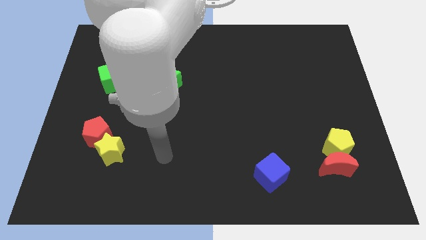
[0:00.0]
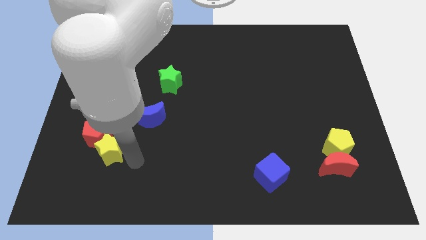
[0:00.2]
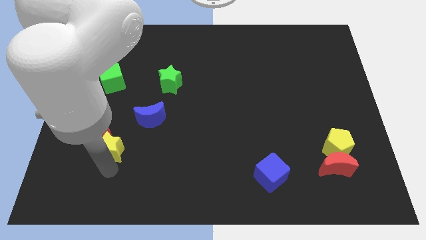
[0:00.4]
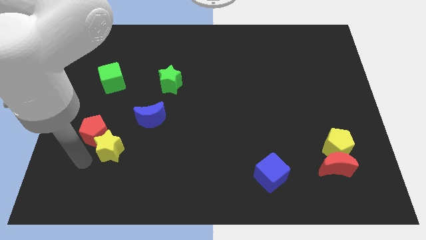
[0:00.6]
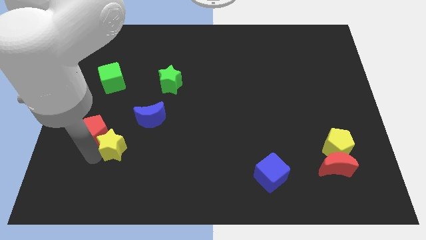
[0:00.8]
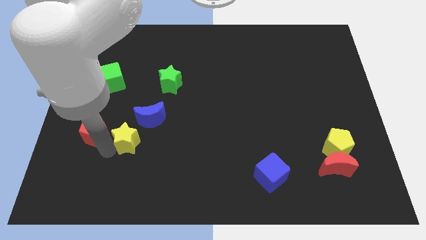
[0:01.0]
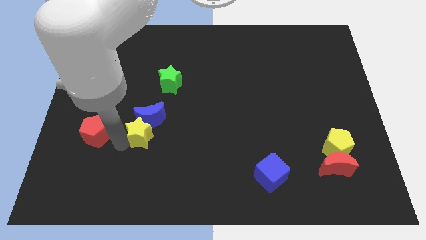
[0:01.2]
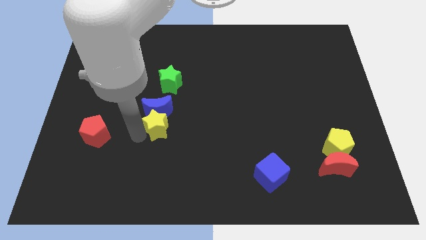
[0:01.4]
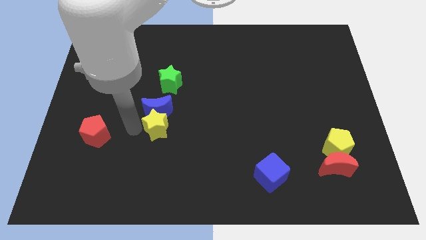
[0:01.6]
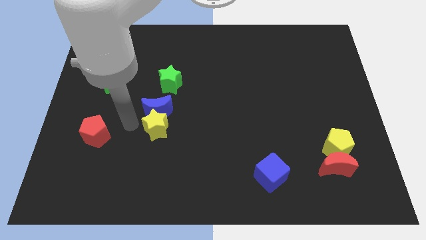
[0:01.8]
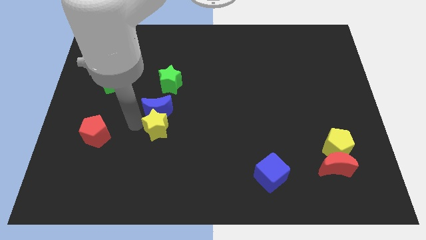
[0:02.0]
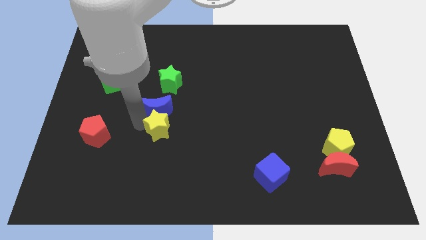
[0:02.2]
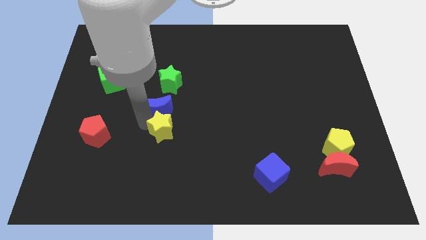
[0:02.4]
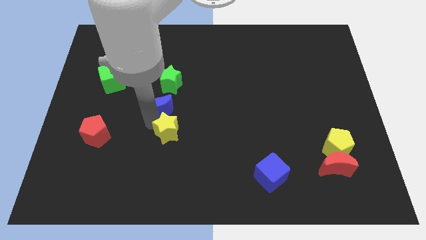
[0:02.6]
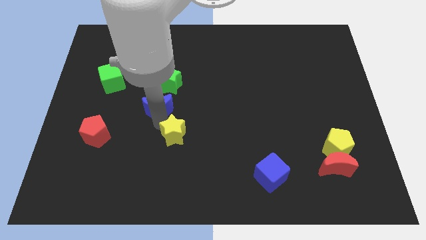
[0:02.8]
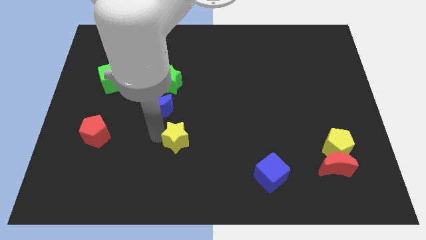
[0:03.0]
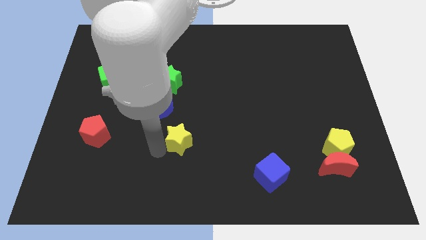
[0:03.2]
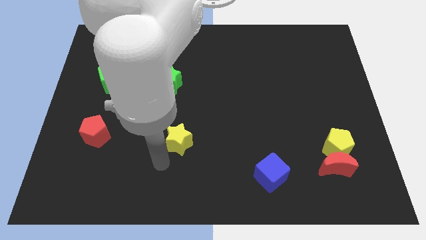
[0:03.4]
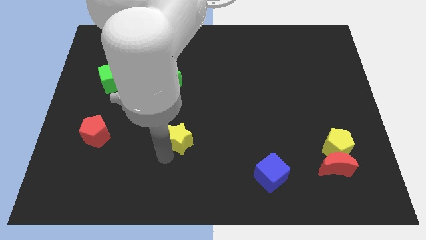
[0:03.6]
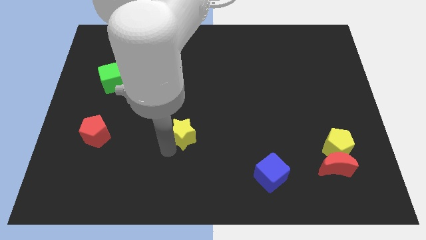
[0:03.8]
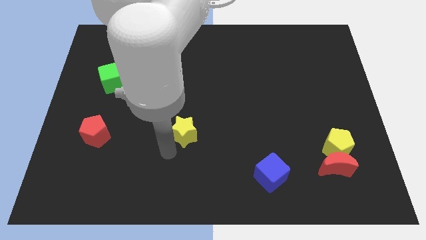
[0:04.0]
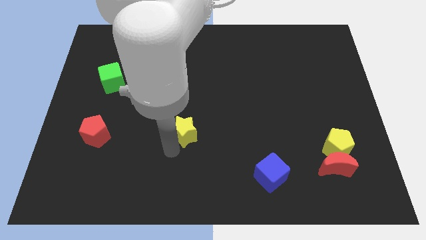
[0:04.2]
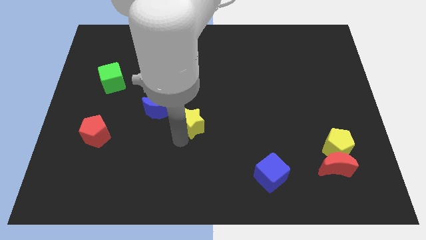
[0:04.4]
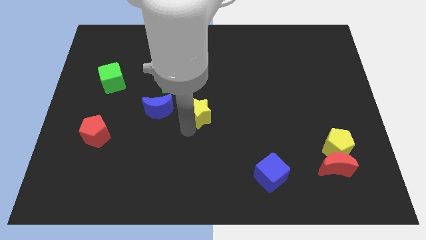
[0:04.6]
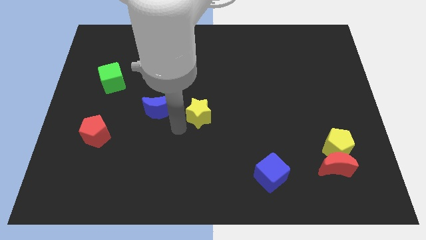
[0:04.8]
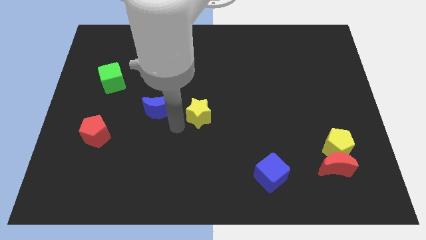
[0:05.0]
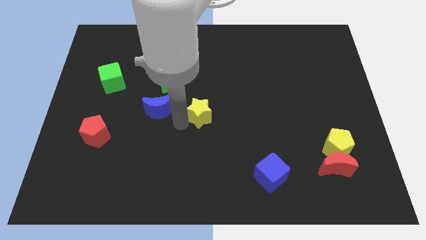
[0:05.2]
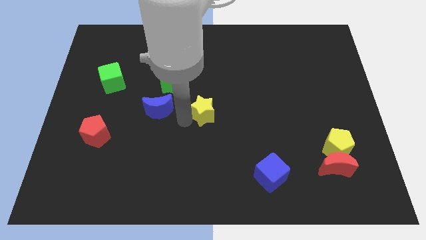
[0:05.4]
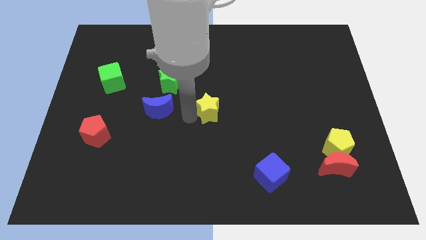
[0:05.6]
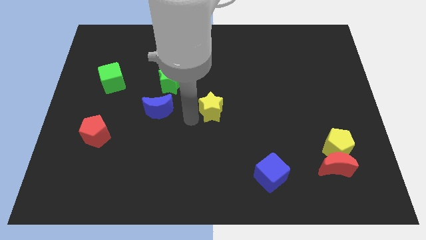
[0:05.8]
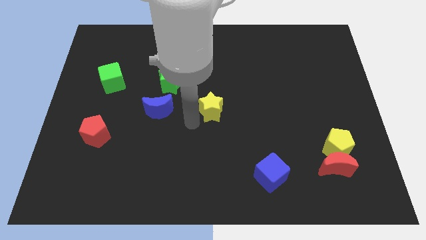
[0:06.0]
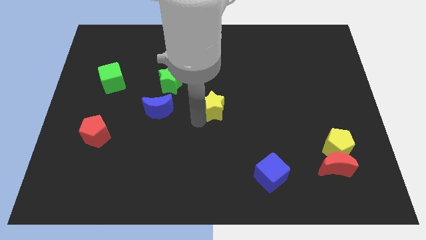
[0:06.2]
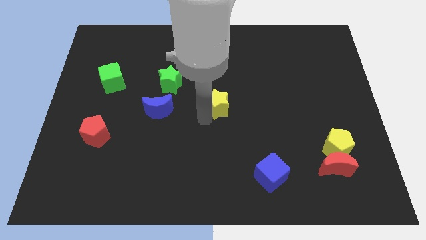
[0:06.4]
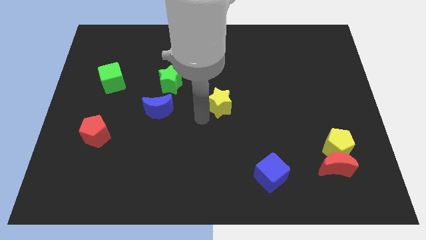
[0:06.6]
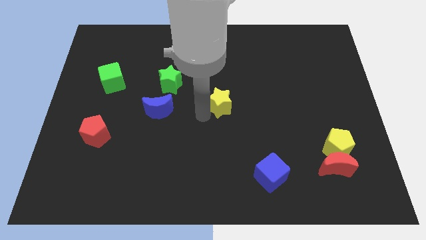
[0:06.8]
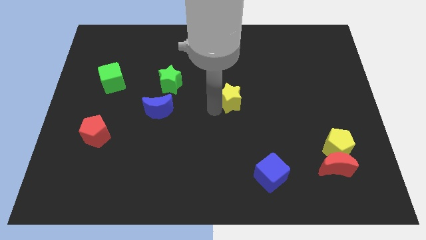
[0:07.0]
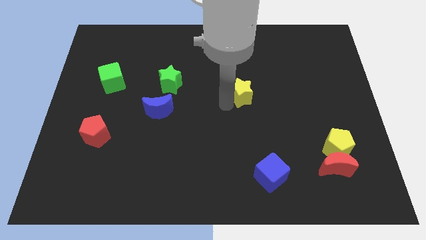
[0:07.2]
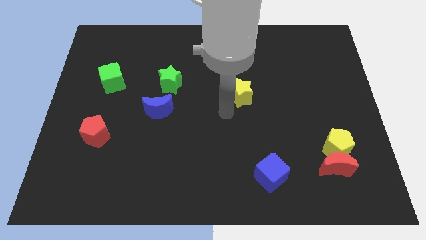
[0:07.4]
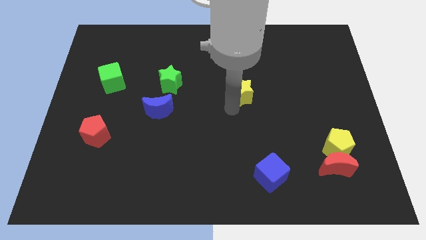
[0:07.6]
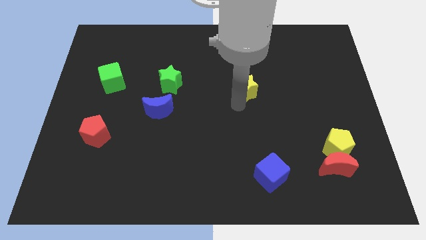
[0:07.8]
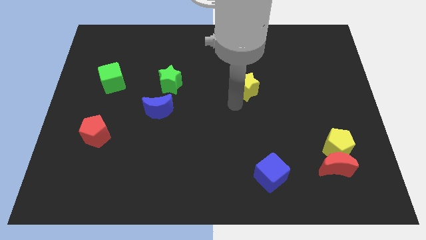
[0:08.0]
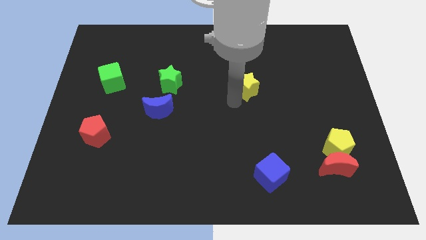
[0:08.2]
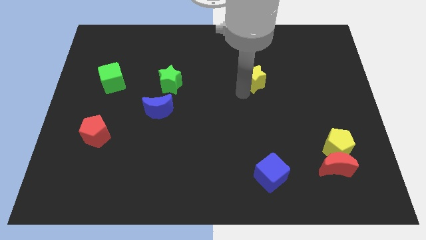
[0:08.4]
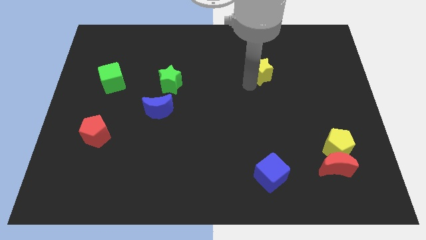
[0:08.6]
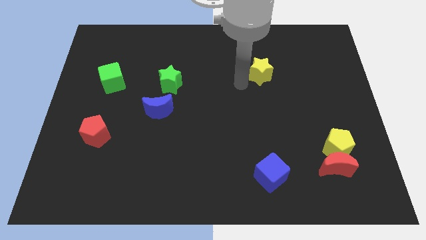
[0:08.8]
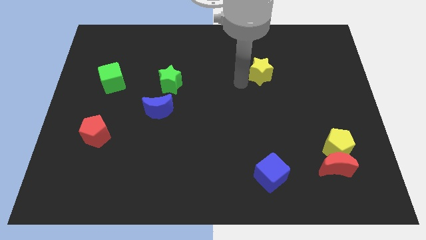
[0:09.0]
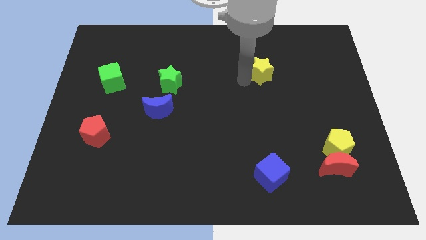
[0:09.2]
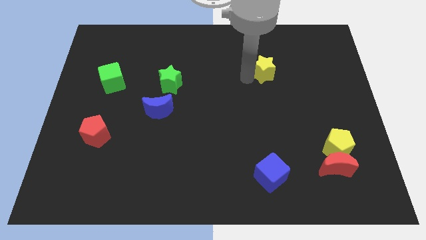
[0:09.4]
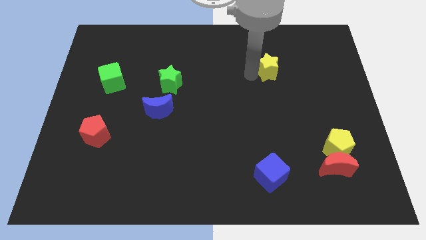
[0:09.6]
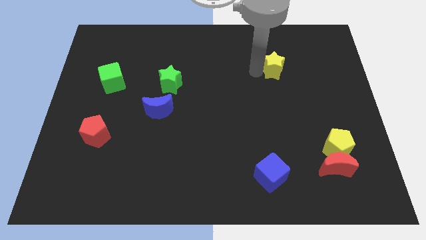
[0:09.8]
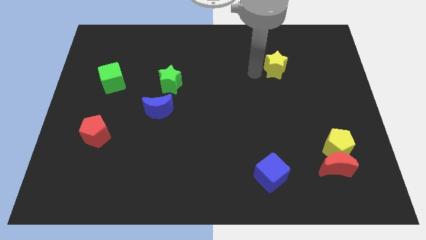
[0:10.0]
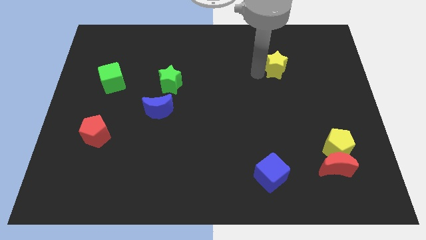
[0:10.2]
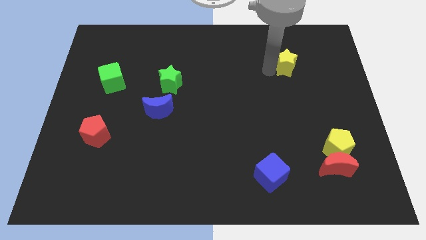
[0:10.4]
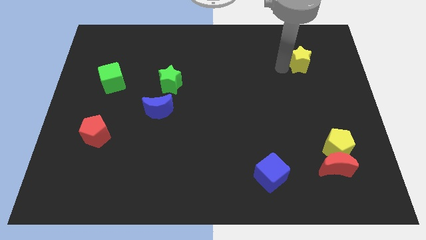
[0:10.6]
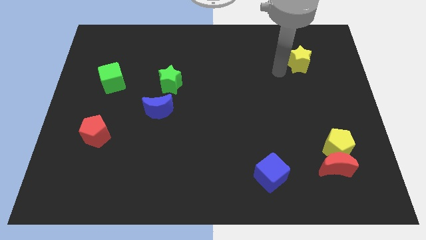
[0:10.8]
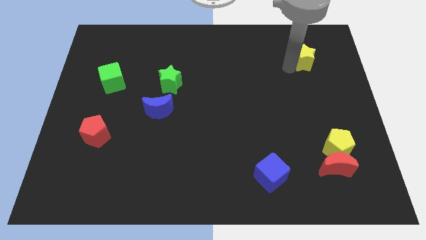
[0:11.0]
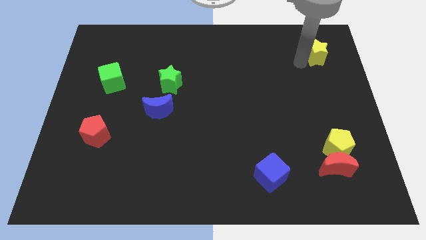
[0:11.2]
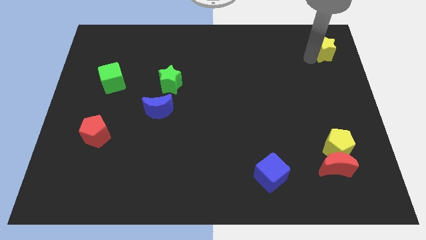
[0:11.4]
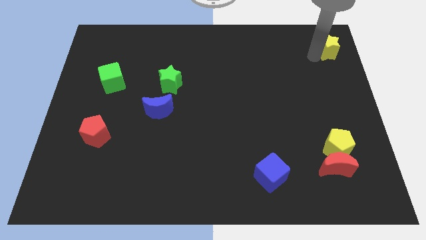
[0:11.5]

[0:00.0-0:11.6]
slide the yellow star to the upper right corner
